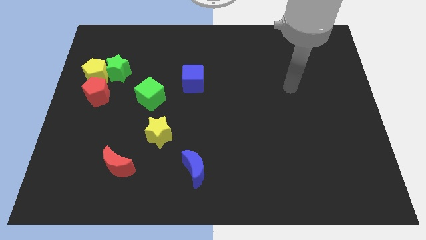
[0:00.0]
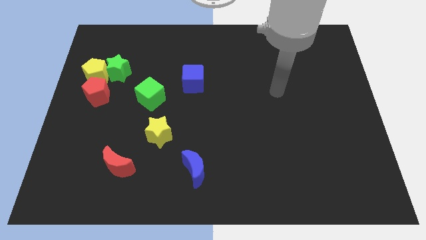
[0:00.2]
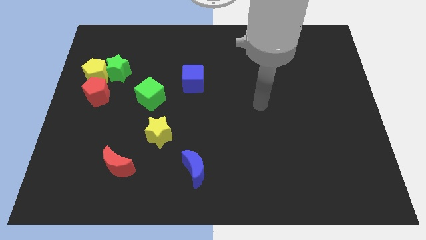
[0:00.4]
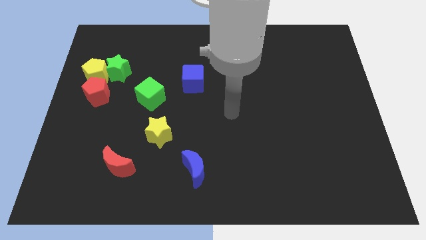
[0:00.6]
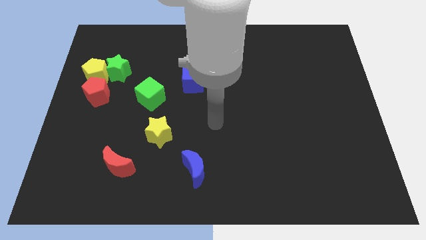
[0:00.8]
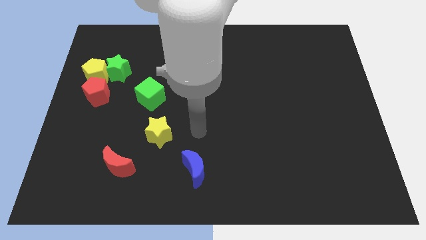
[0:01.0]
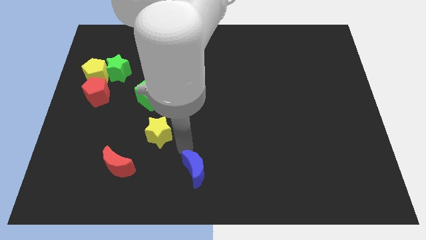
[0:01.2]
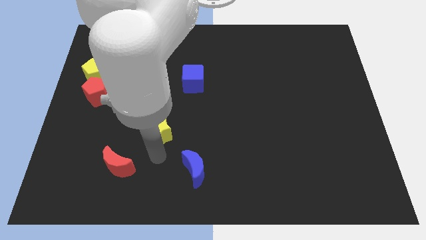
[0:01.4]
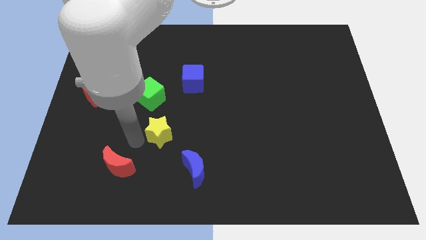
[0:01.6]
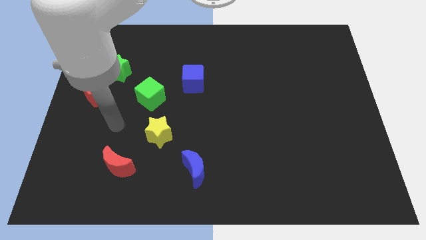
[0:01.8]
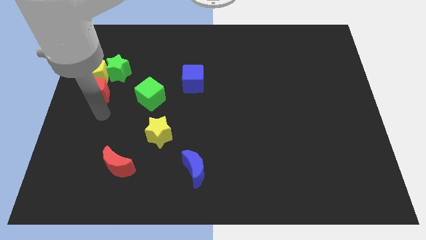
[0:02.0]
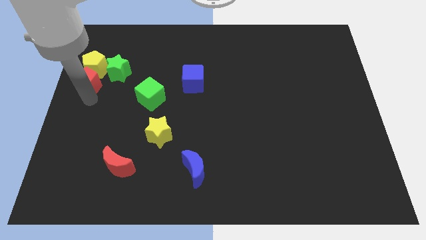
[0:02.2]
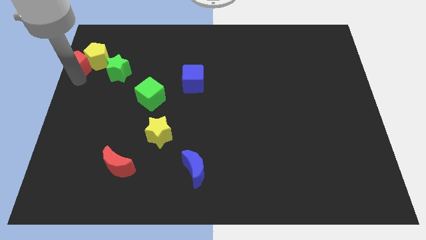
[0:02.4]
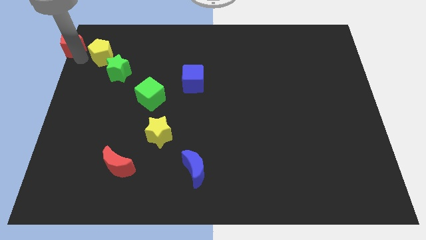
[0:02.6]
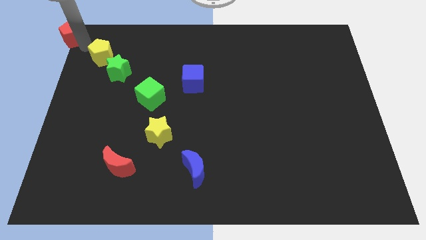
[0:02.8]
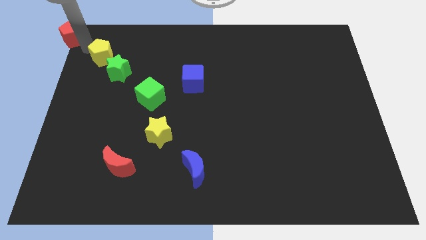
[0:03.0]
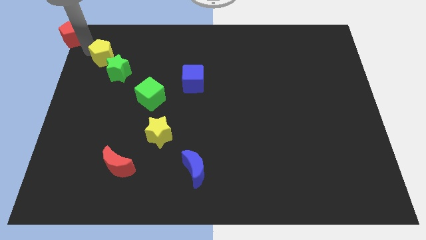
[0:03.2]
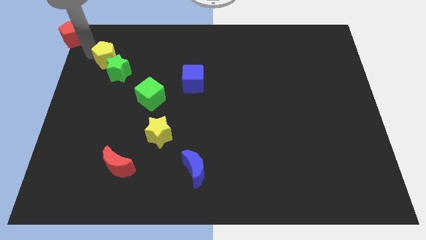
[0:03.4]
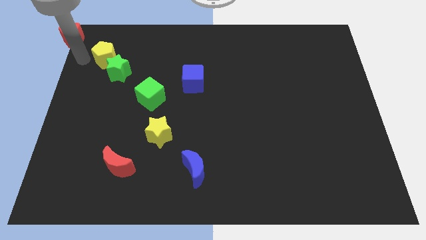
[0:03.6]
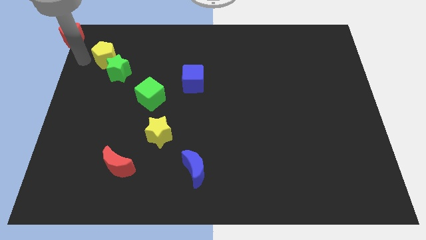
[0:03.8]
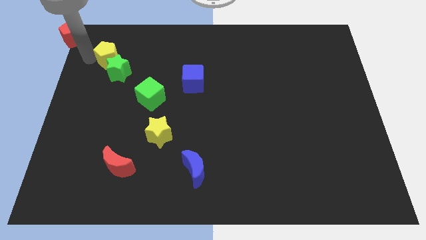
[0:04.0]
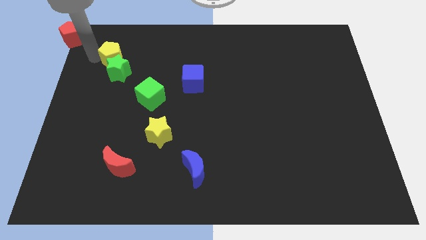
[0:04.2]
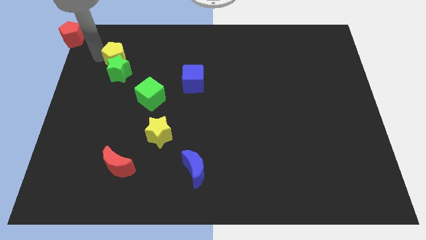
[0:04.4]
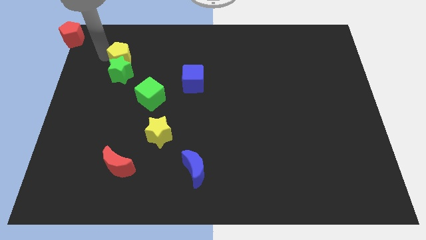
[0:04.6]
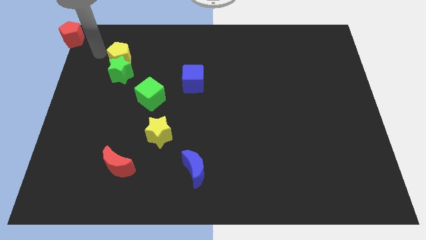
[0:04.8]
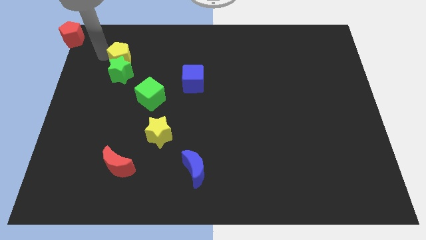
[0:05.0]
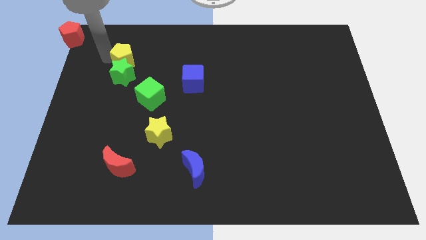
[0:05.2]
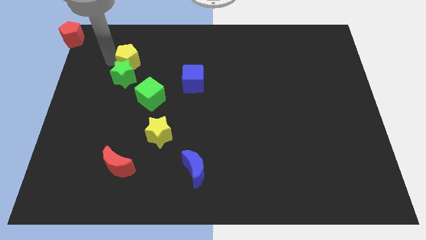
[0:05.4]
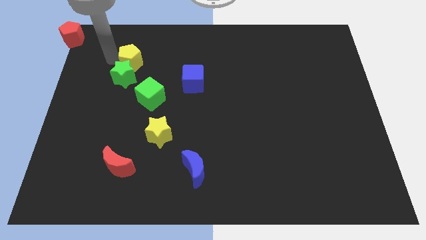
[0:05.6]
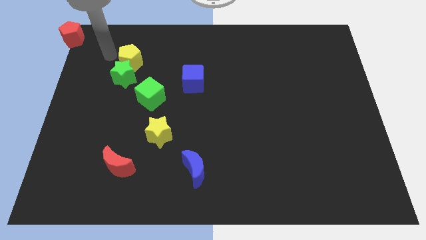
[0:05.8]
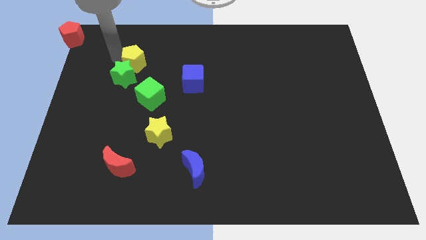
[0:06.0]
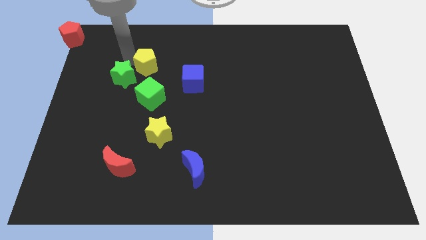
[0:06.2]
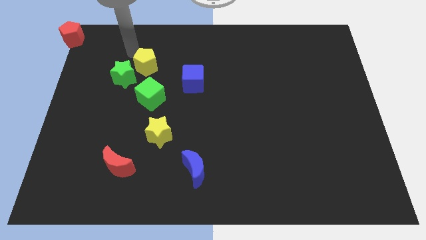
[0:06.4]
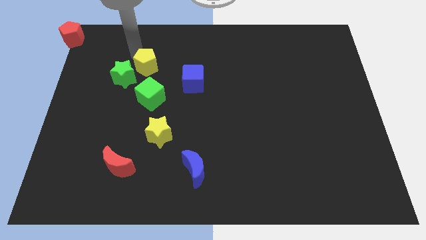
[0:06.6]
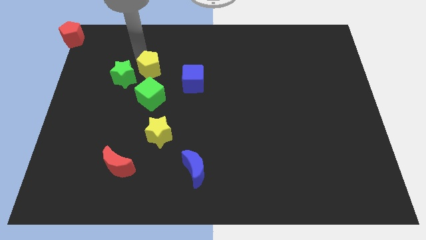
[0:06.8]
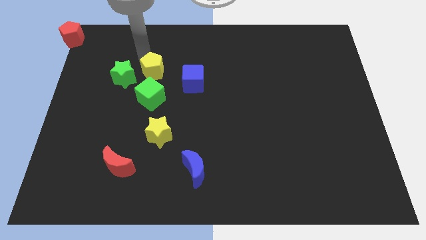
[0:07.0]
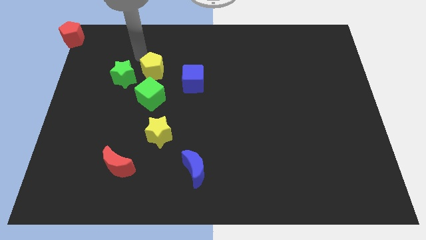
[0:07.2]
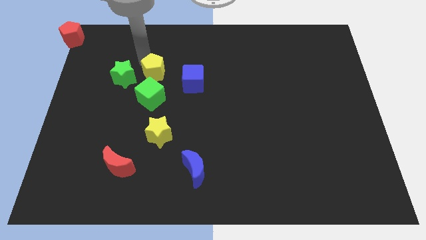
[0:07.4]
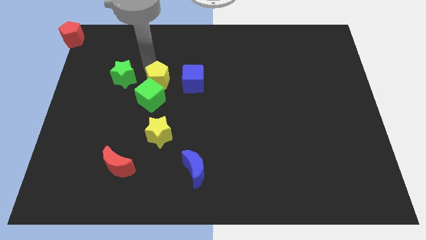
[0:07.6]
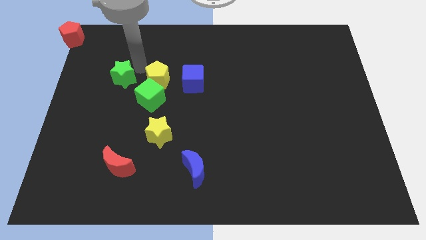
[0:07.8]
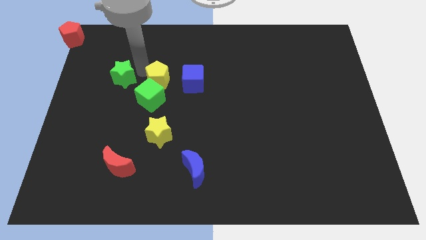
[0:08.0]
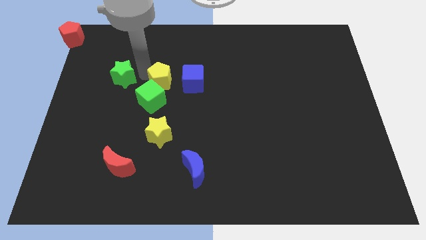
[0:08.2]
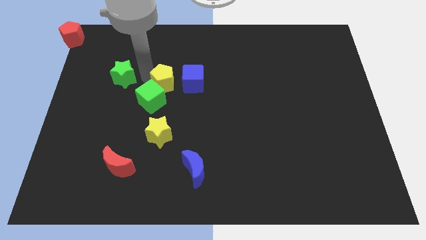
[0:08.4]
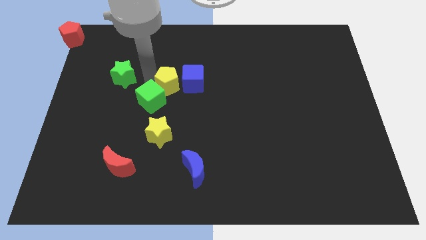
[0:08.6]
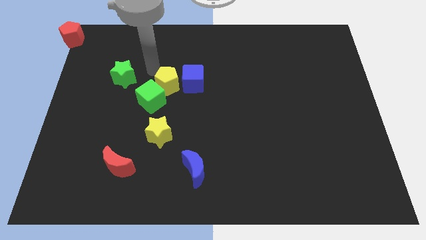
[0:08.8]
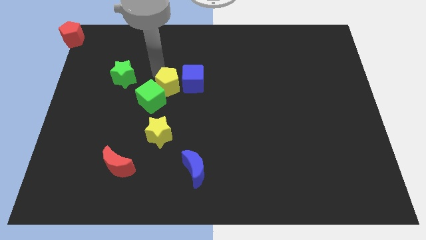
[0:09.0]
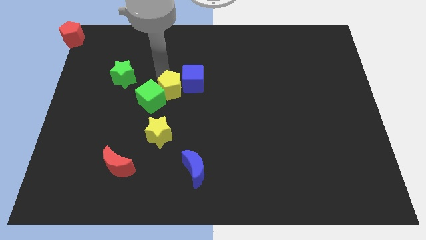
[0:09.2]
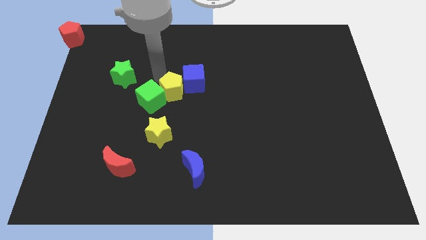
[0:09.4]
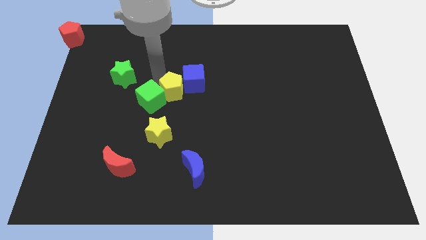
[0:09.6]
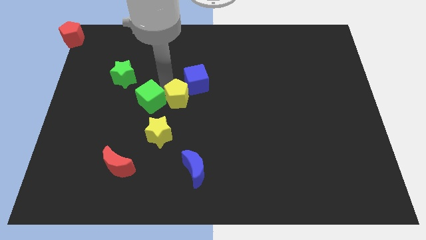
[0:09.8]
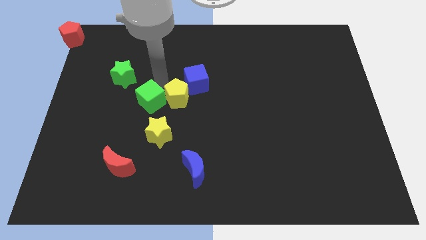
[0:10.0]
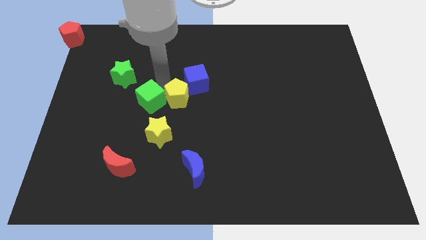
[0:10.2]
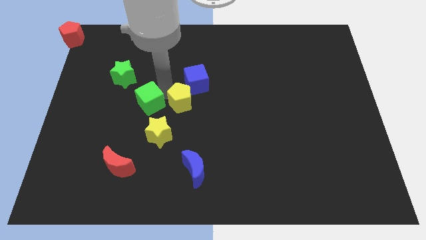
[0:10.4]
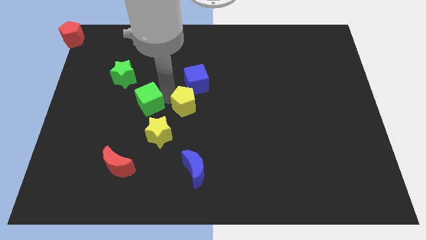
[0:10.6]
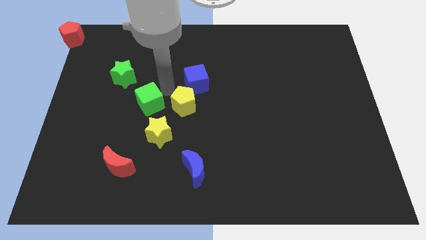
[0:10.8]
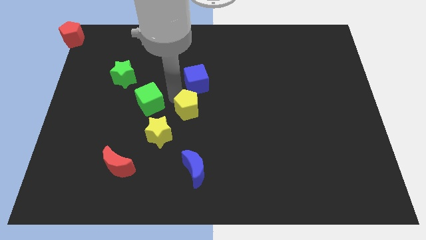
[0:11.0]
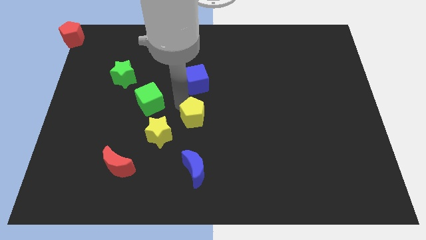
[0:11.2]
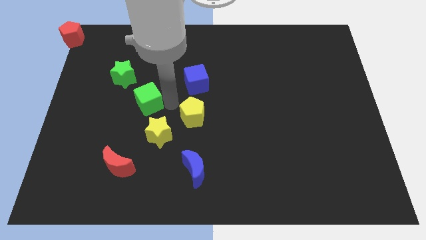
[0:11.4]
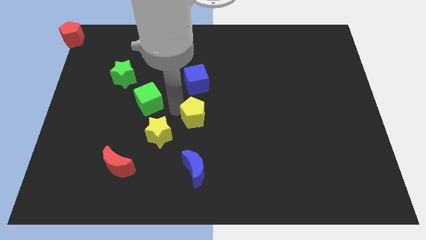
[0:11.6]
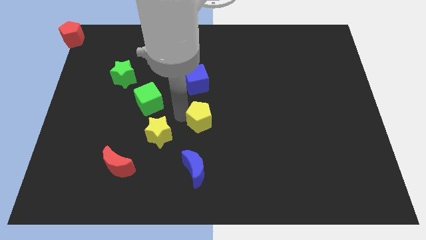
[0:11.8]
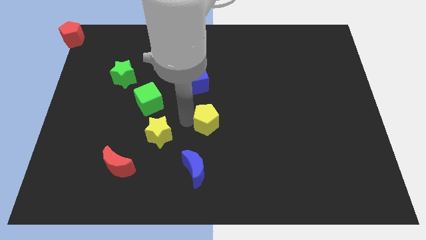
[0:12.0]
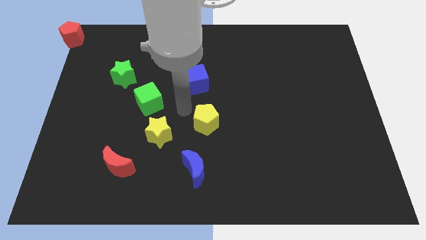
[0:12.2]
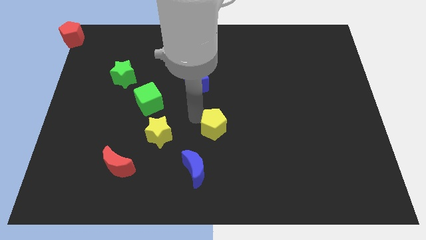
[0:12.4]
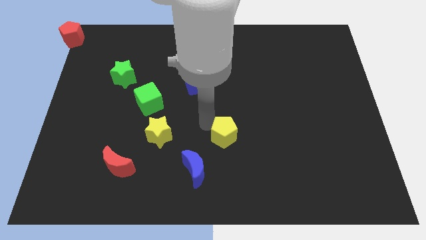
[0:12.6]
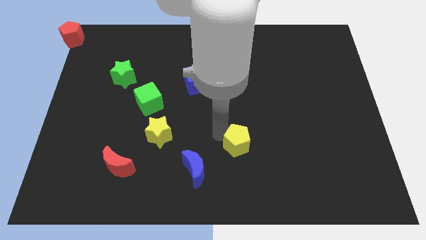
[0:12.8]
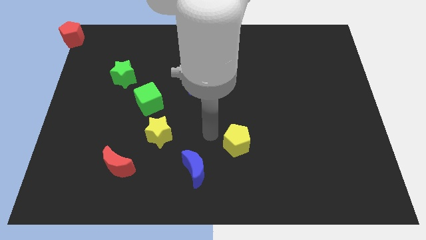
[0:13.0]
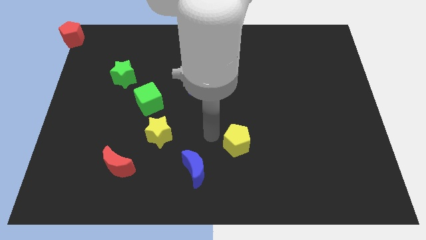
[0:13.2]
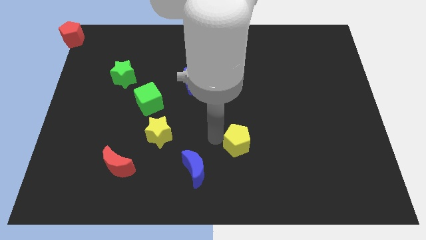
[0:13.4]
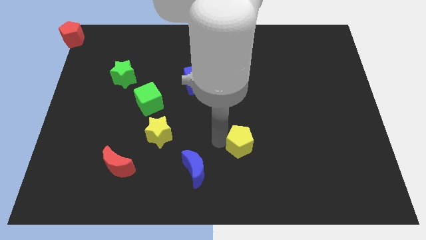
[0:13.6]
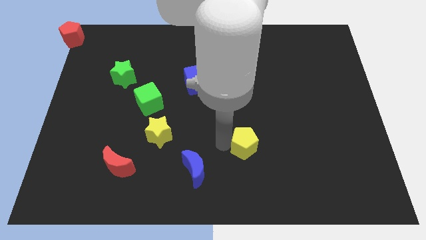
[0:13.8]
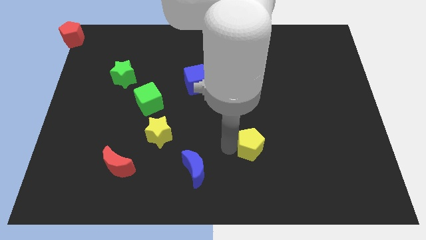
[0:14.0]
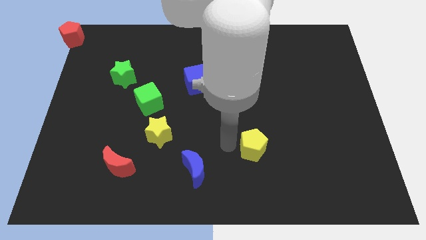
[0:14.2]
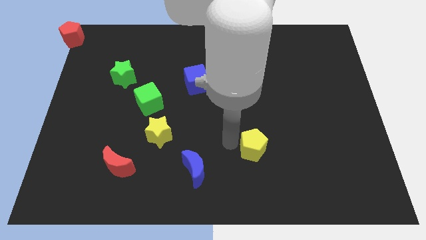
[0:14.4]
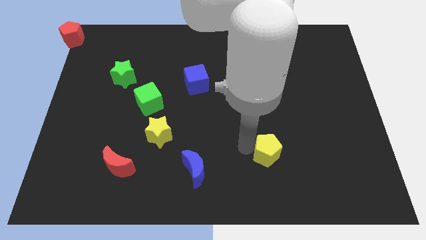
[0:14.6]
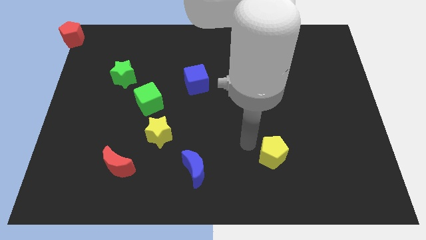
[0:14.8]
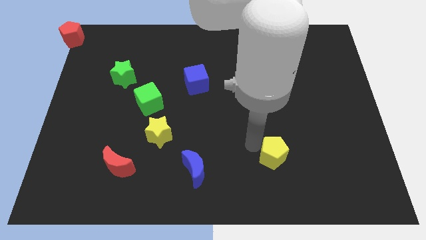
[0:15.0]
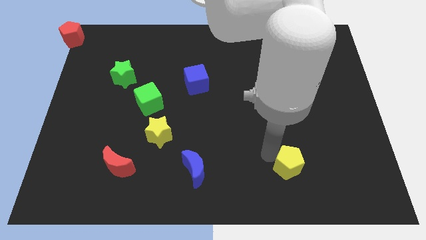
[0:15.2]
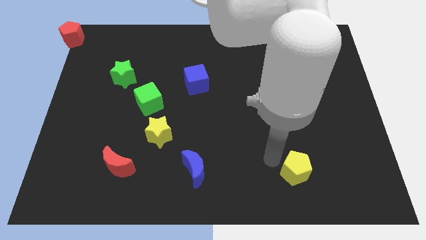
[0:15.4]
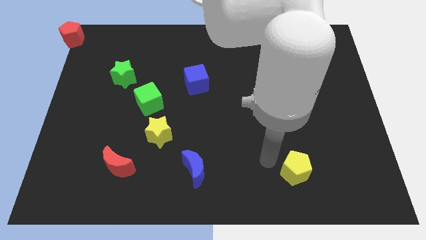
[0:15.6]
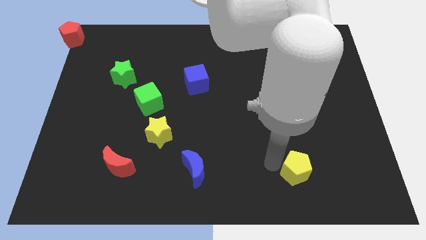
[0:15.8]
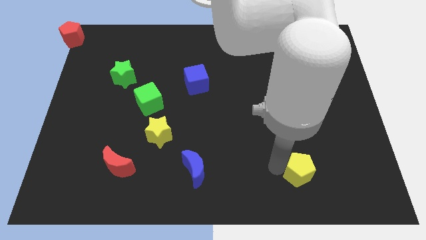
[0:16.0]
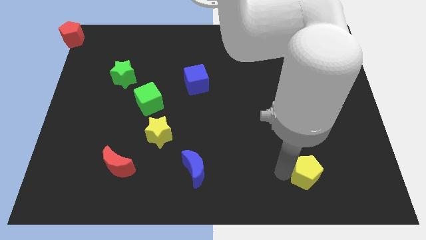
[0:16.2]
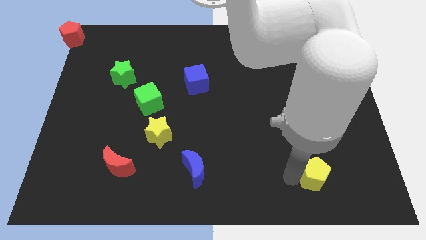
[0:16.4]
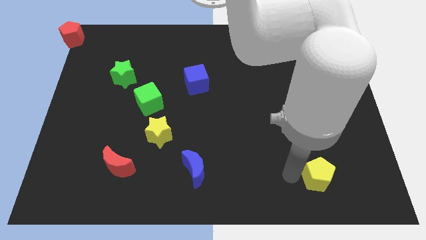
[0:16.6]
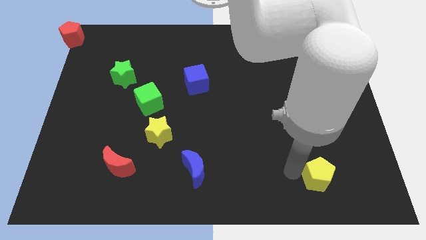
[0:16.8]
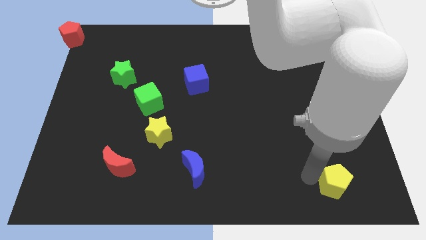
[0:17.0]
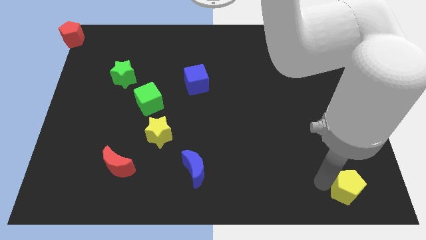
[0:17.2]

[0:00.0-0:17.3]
put the yellow pentagon to the bottom right
